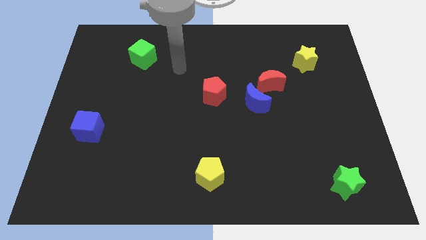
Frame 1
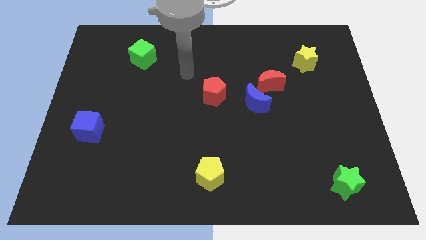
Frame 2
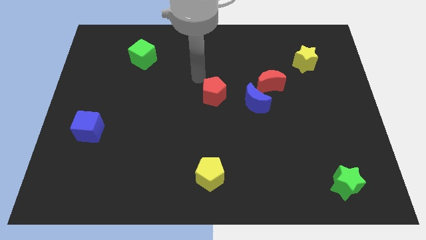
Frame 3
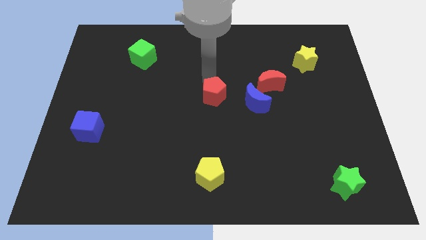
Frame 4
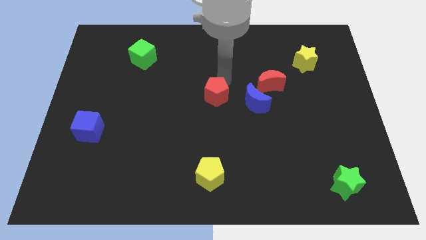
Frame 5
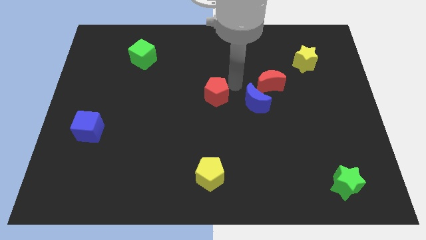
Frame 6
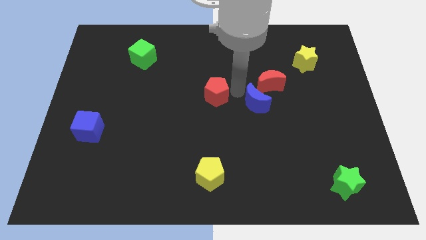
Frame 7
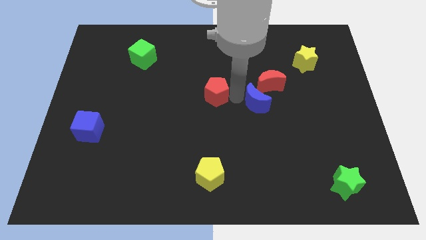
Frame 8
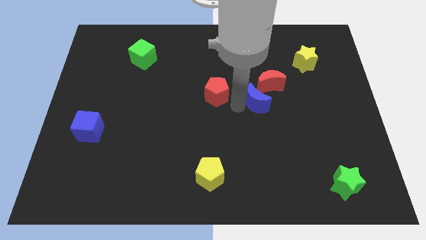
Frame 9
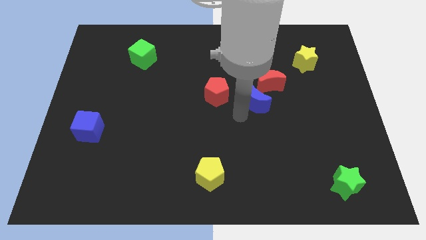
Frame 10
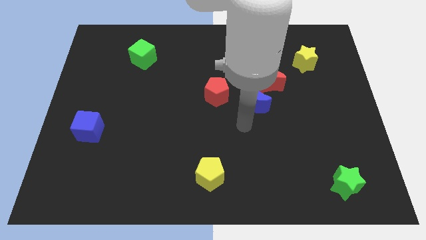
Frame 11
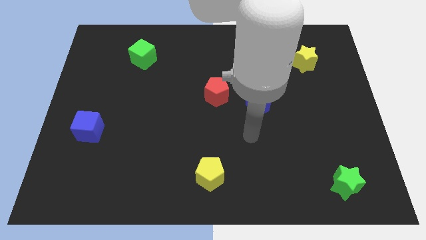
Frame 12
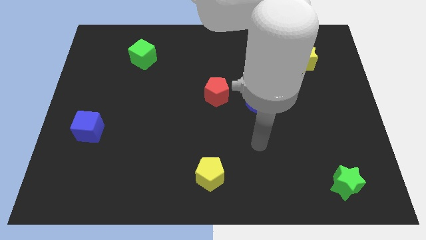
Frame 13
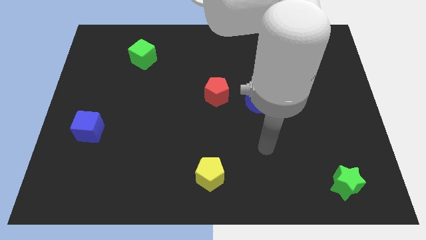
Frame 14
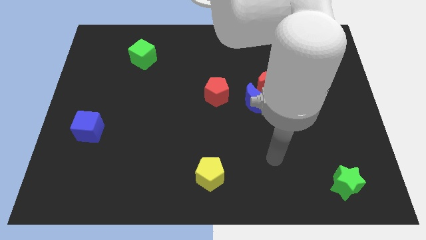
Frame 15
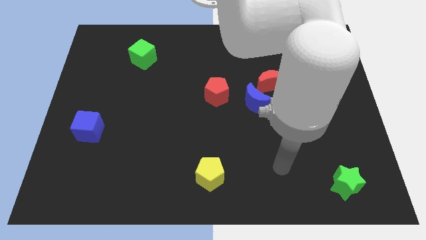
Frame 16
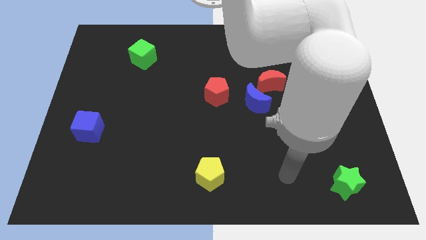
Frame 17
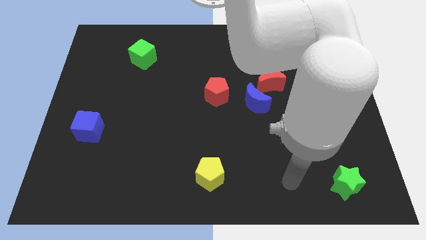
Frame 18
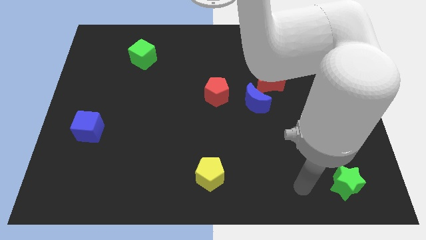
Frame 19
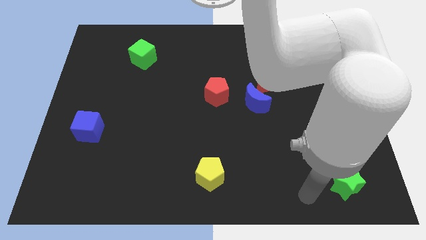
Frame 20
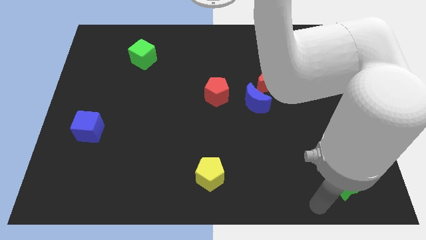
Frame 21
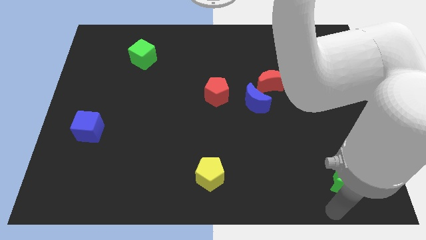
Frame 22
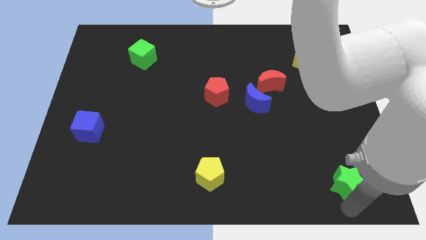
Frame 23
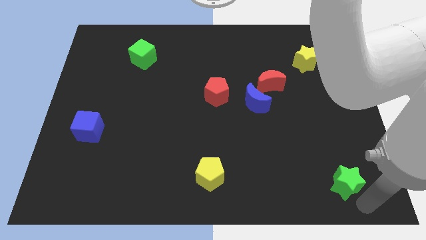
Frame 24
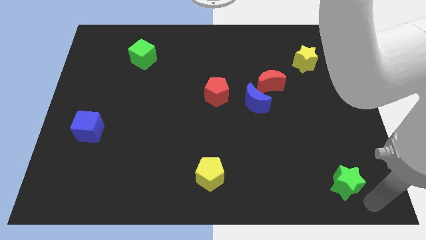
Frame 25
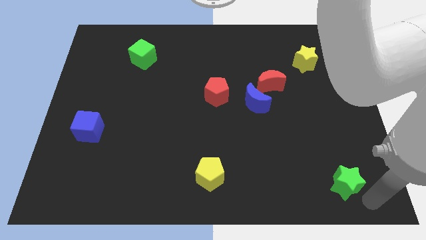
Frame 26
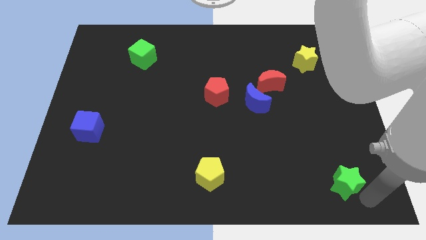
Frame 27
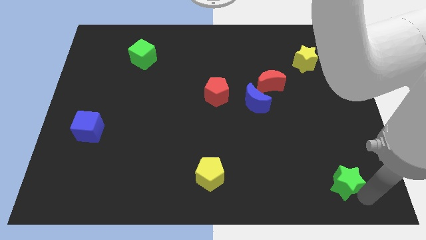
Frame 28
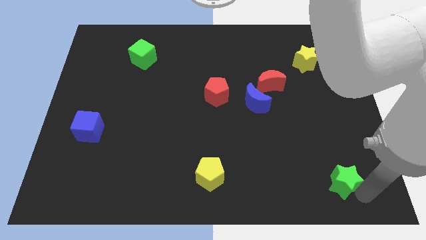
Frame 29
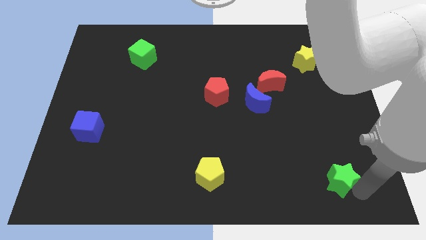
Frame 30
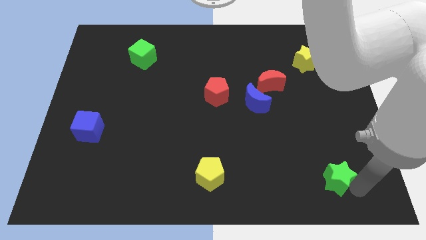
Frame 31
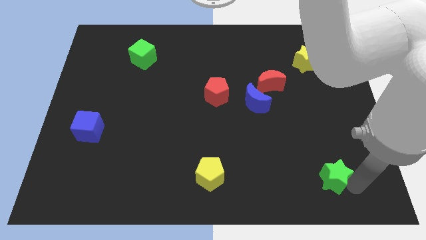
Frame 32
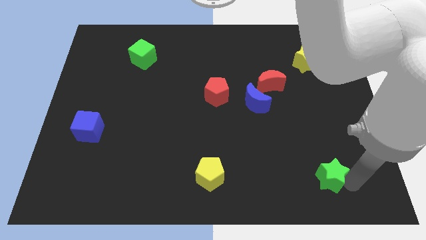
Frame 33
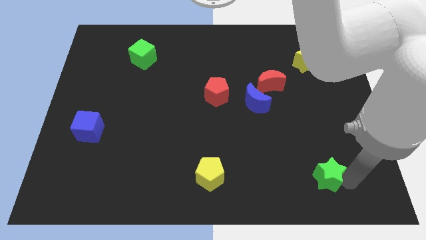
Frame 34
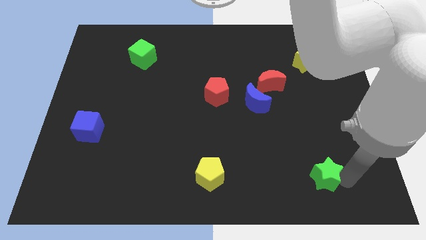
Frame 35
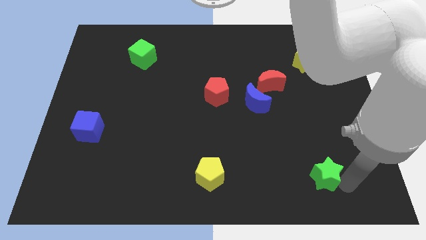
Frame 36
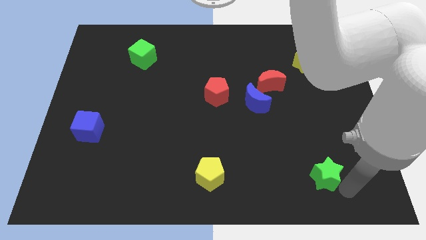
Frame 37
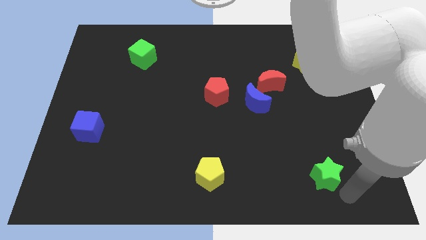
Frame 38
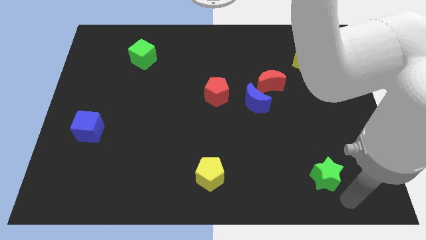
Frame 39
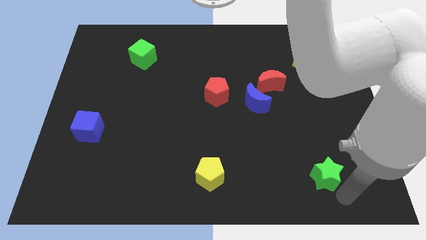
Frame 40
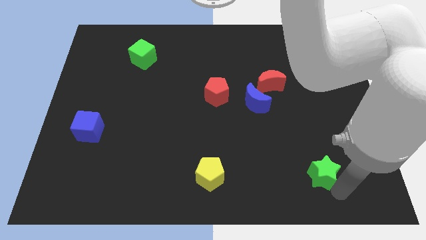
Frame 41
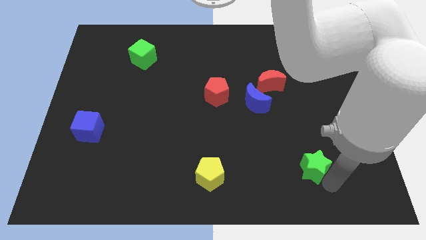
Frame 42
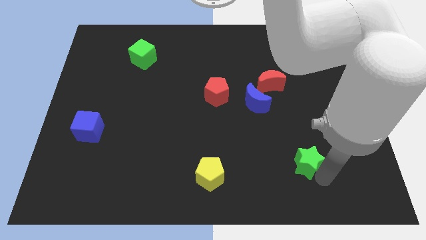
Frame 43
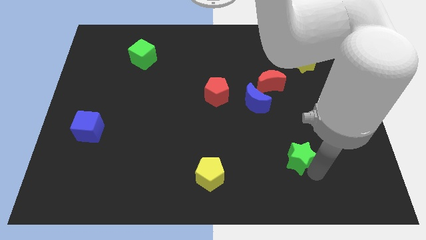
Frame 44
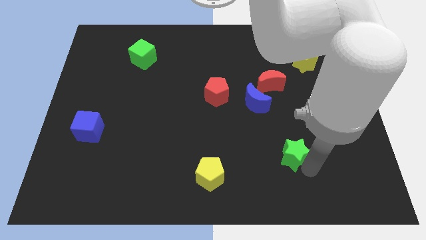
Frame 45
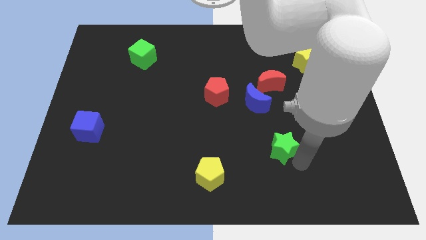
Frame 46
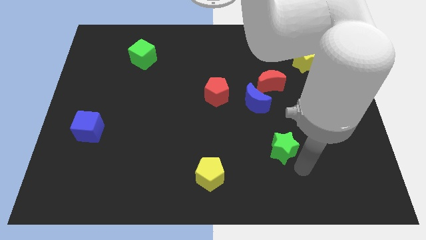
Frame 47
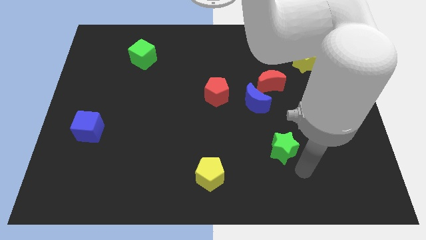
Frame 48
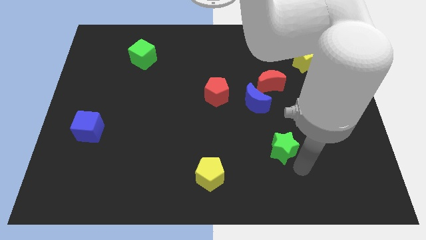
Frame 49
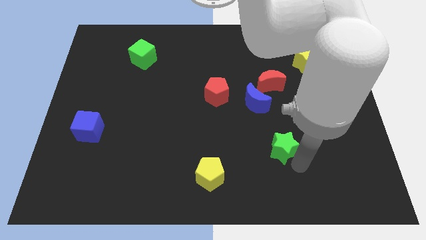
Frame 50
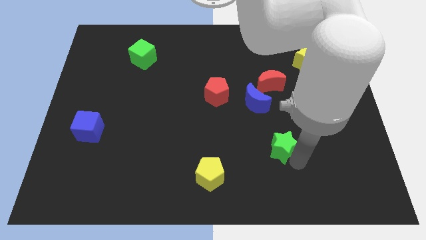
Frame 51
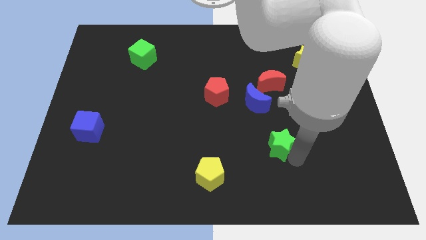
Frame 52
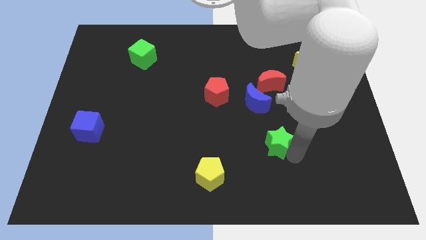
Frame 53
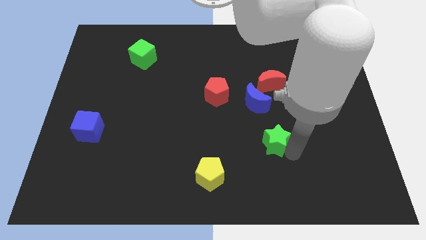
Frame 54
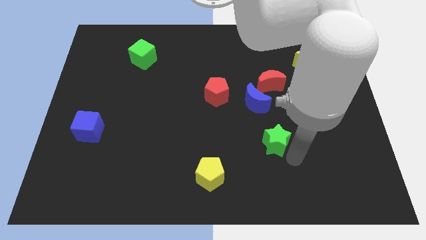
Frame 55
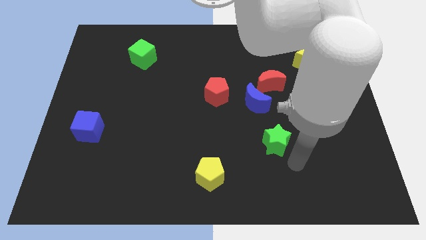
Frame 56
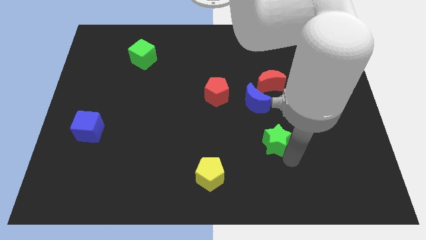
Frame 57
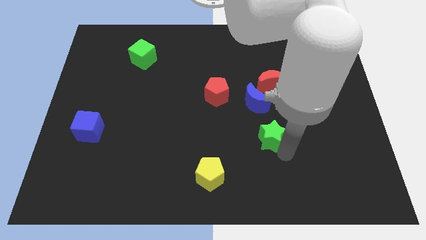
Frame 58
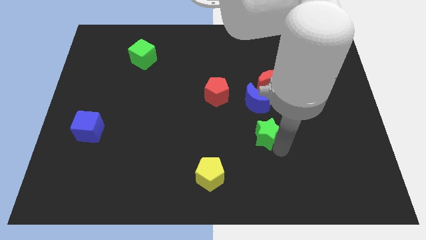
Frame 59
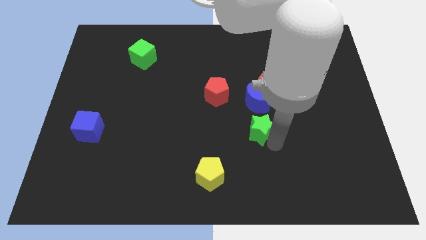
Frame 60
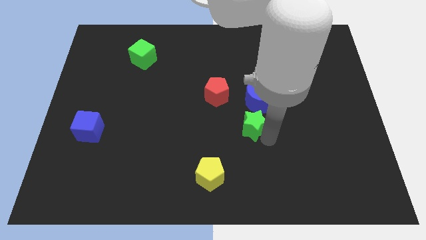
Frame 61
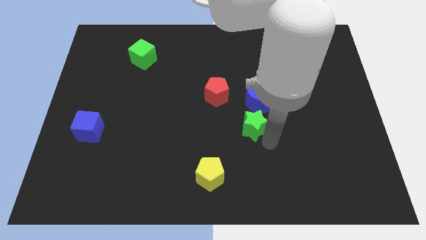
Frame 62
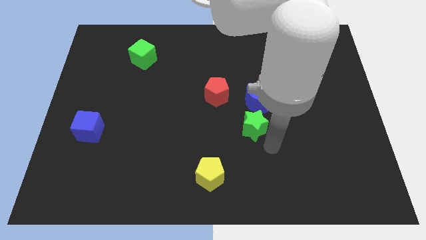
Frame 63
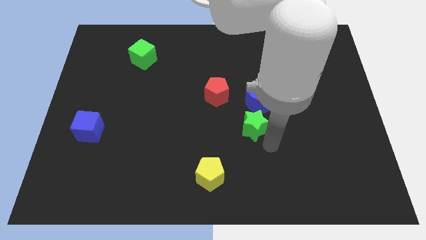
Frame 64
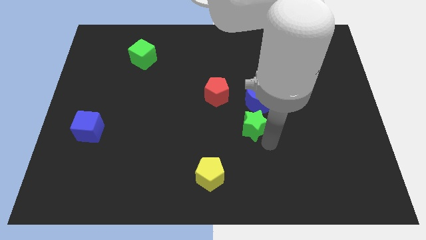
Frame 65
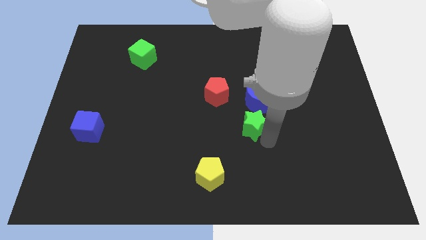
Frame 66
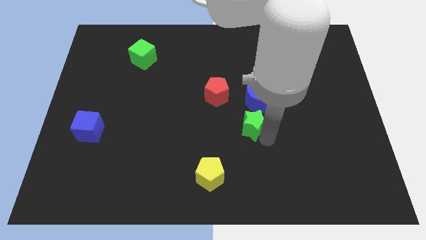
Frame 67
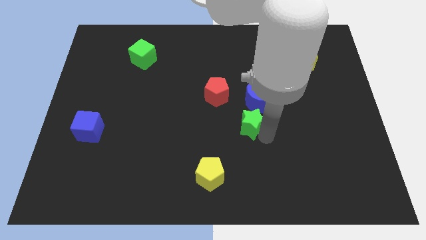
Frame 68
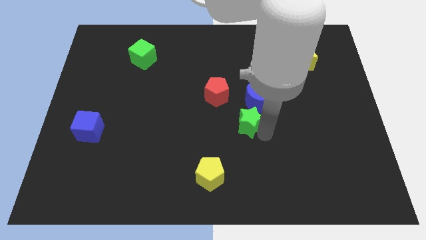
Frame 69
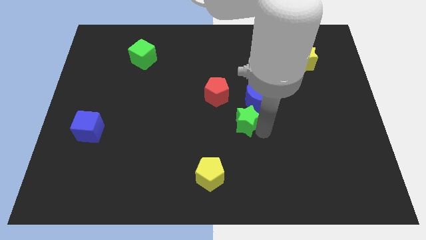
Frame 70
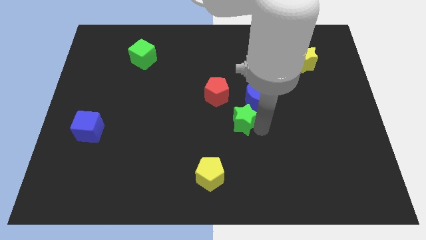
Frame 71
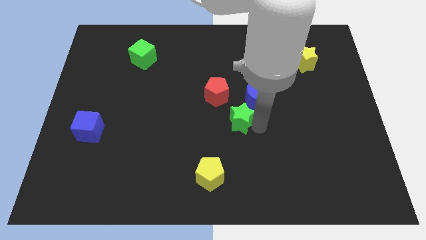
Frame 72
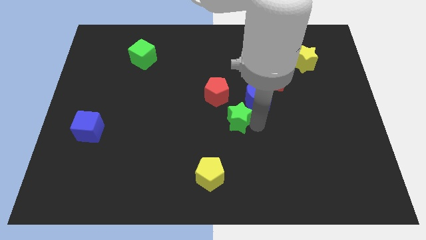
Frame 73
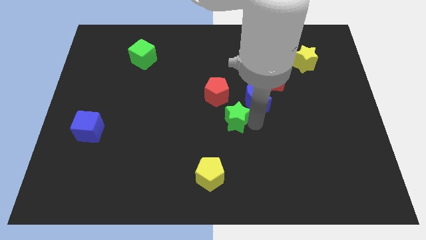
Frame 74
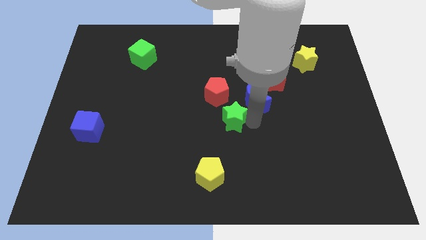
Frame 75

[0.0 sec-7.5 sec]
slide the green star just left of the blue moon

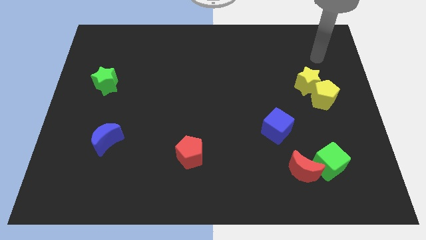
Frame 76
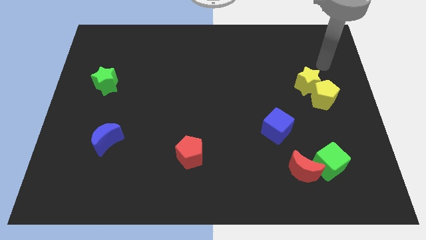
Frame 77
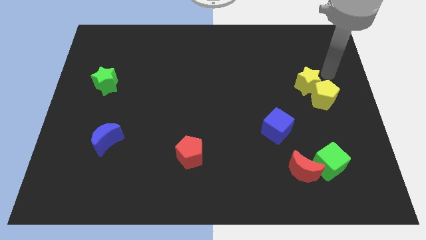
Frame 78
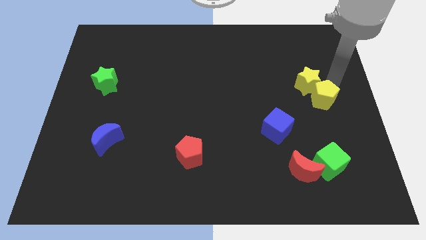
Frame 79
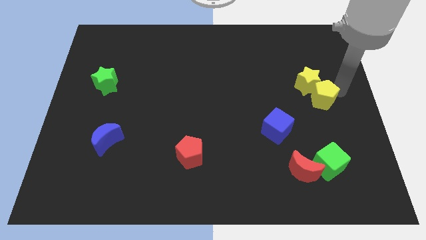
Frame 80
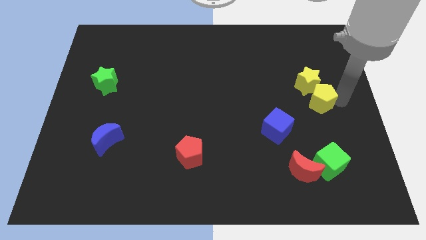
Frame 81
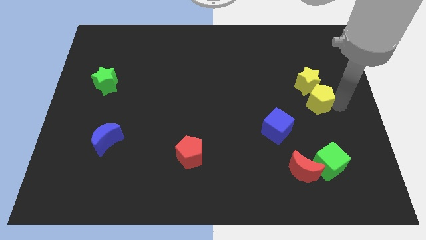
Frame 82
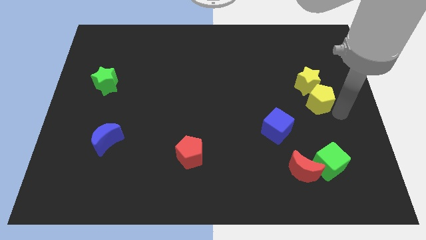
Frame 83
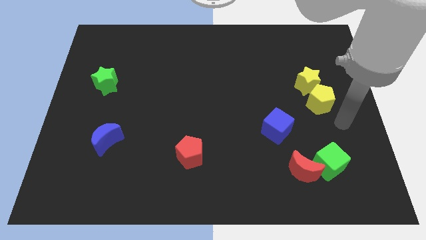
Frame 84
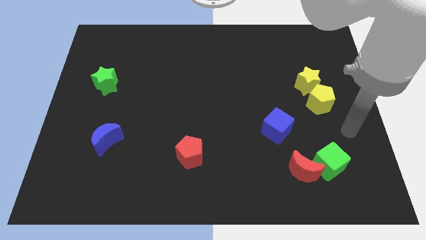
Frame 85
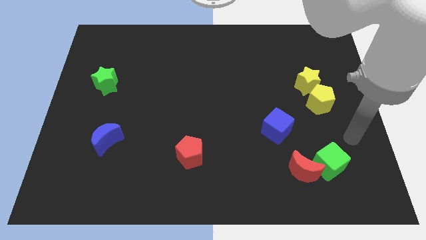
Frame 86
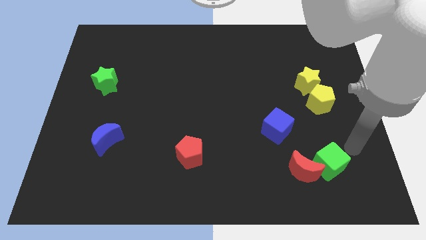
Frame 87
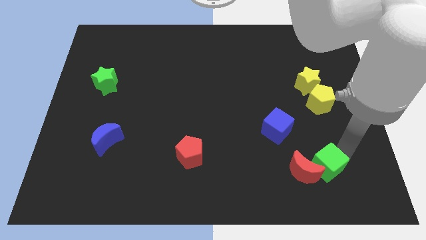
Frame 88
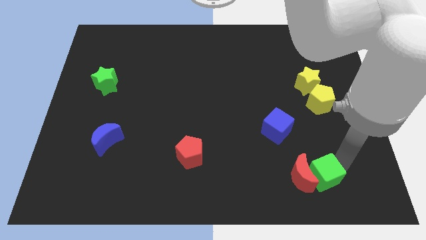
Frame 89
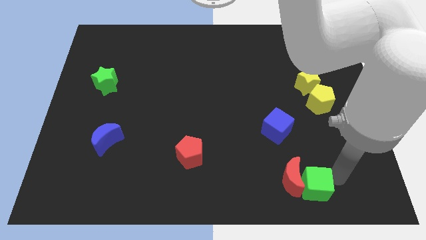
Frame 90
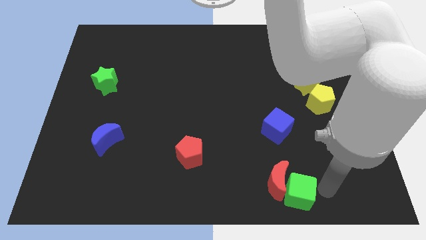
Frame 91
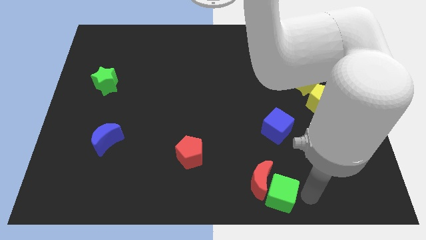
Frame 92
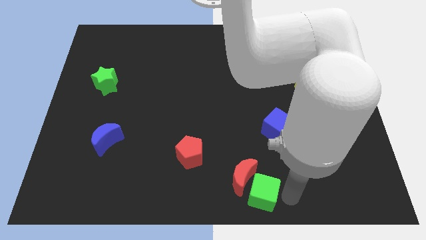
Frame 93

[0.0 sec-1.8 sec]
put the red moon to the right of the red pentagon
